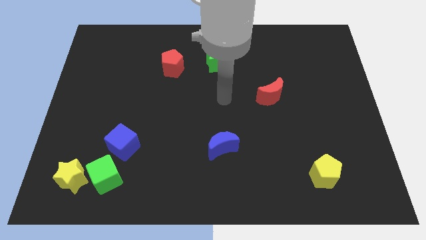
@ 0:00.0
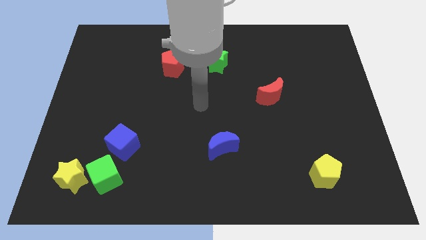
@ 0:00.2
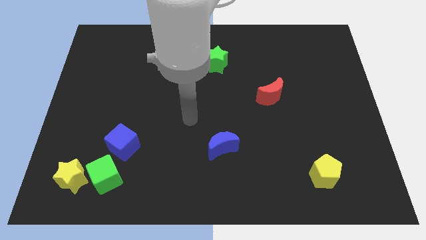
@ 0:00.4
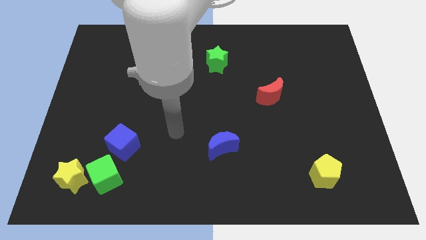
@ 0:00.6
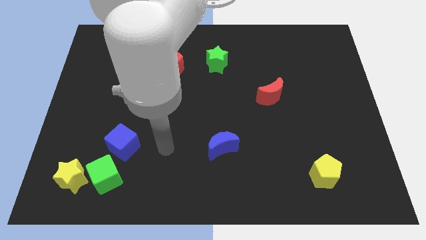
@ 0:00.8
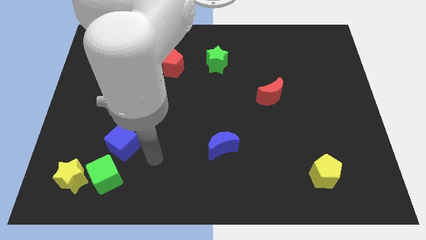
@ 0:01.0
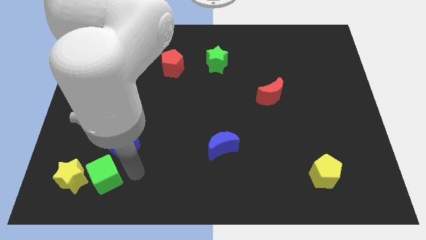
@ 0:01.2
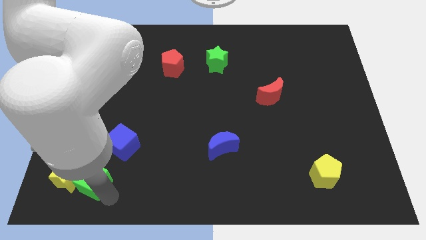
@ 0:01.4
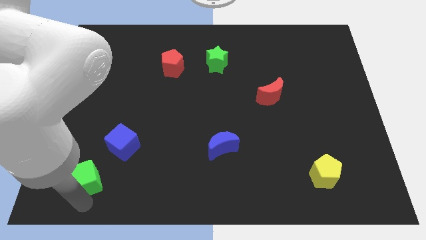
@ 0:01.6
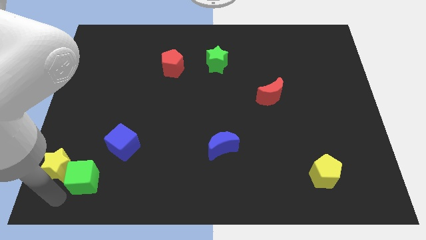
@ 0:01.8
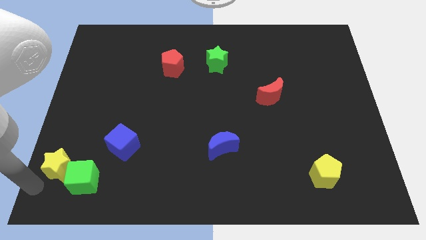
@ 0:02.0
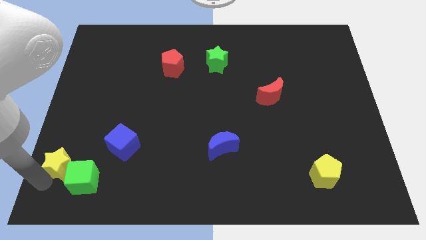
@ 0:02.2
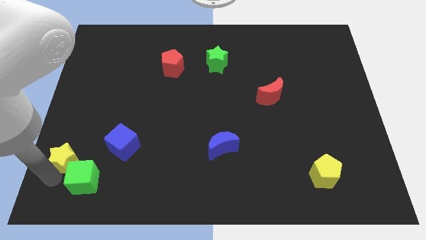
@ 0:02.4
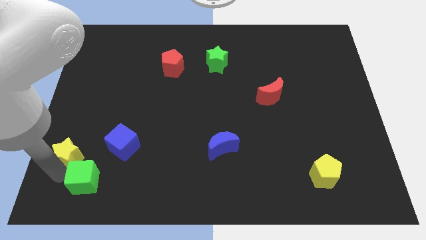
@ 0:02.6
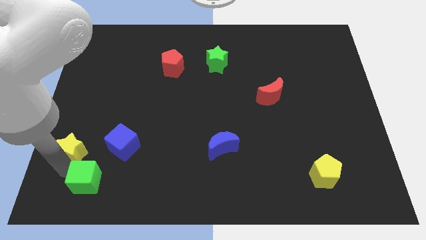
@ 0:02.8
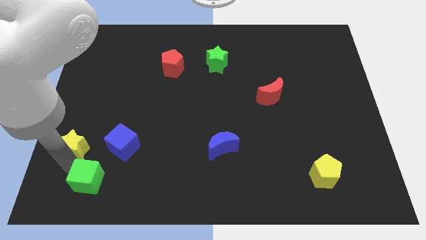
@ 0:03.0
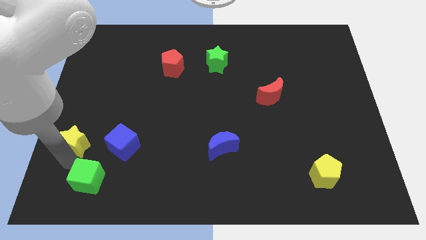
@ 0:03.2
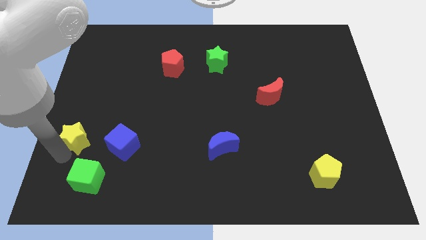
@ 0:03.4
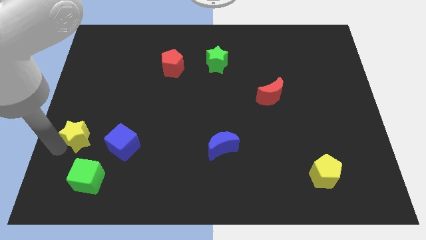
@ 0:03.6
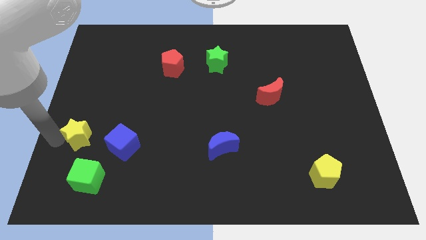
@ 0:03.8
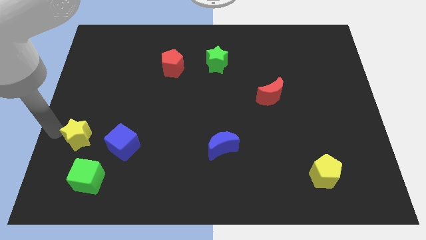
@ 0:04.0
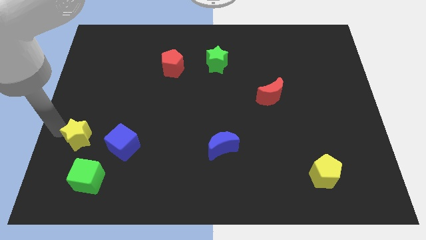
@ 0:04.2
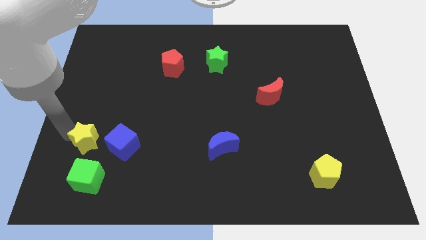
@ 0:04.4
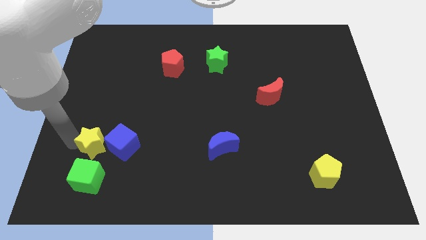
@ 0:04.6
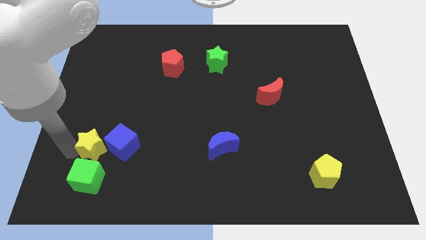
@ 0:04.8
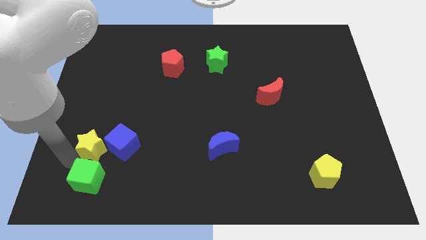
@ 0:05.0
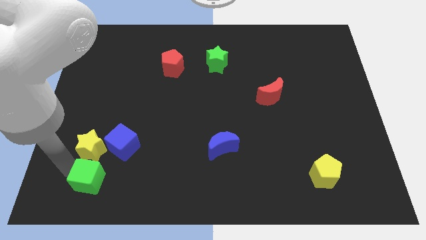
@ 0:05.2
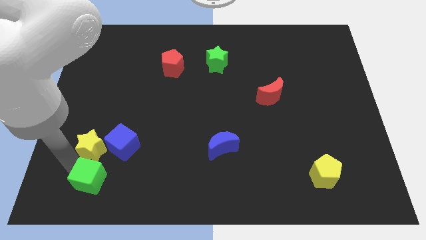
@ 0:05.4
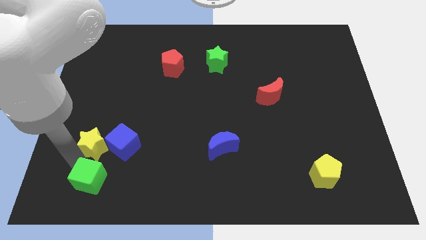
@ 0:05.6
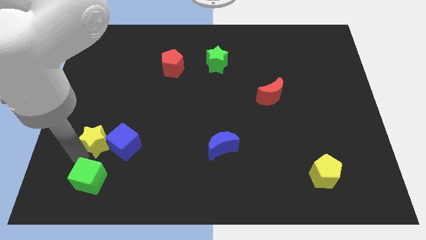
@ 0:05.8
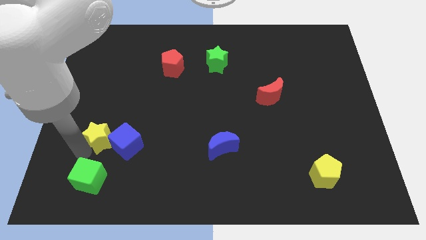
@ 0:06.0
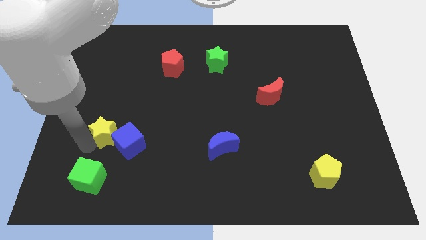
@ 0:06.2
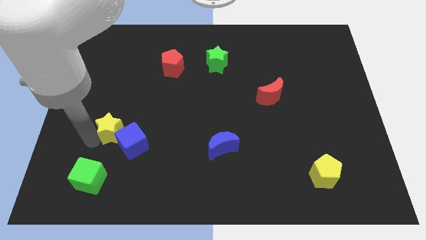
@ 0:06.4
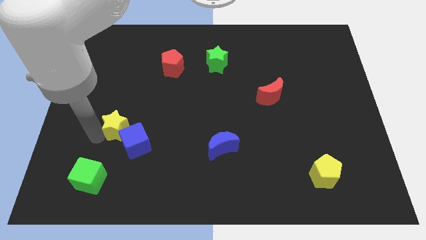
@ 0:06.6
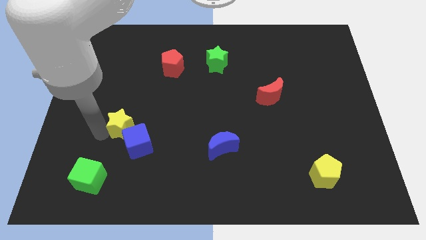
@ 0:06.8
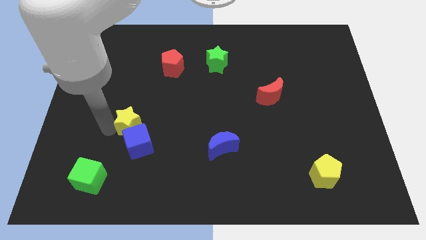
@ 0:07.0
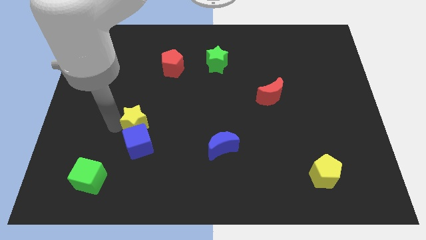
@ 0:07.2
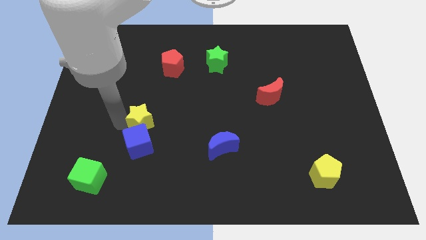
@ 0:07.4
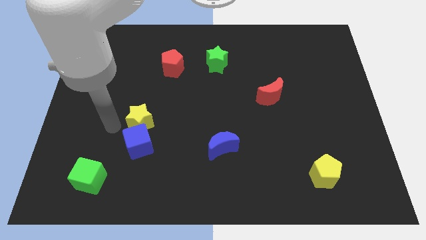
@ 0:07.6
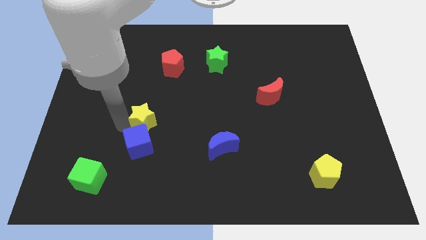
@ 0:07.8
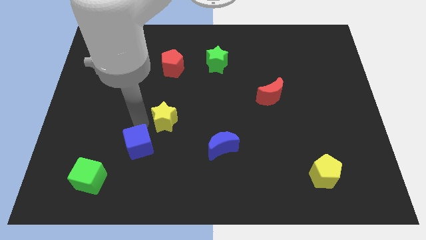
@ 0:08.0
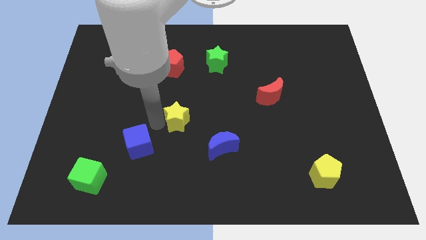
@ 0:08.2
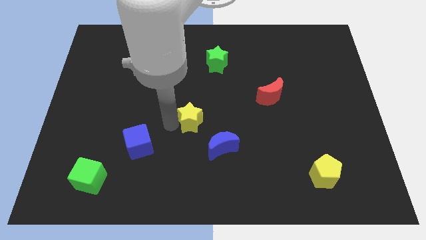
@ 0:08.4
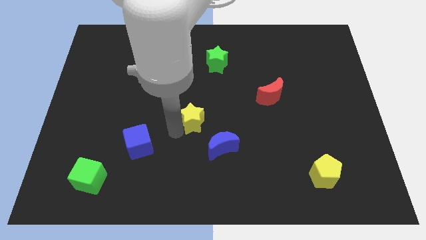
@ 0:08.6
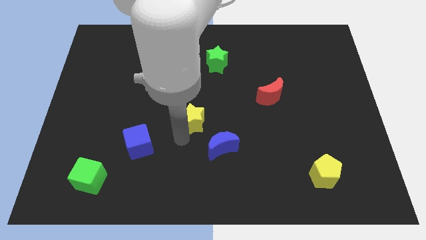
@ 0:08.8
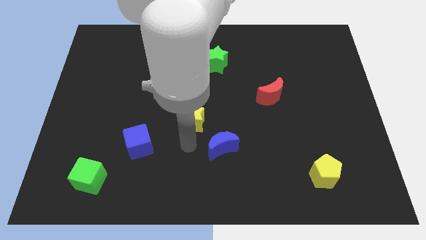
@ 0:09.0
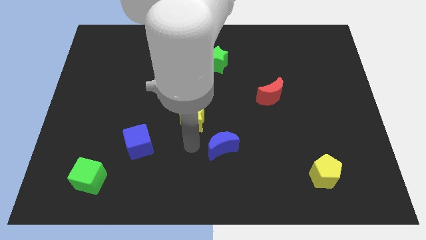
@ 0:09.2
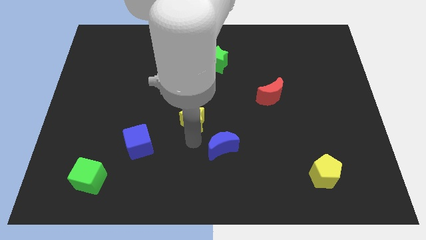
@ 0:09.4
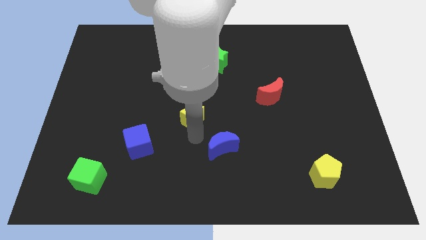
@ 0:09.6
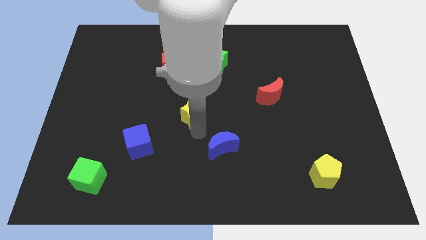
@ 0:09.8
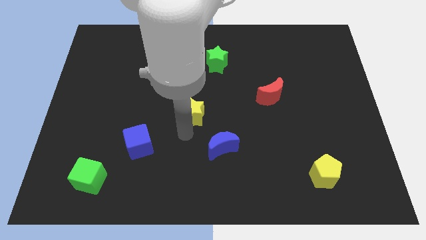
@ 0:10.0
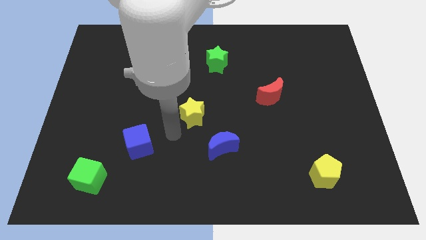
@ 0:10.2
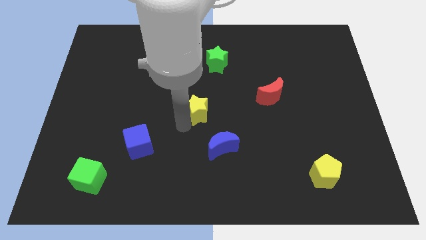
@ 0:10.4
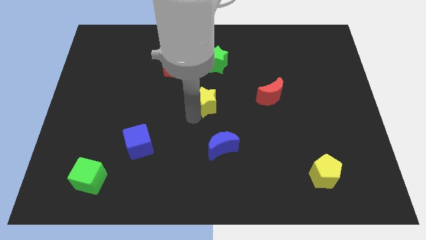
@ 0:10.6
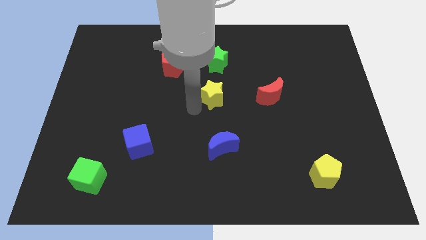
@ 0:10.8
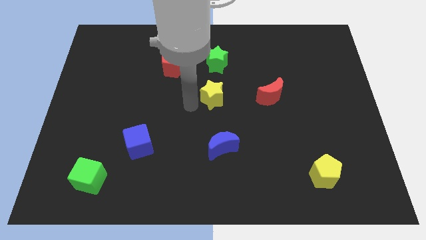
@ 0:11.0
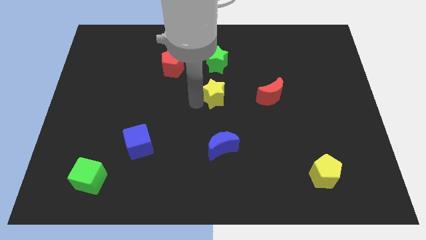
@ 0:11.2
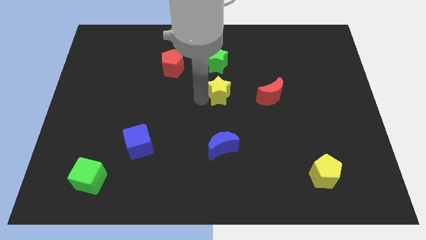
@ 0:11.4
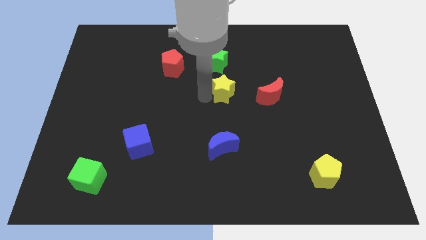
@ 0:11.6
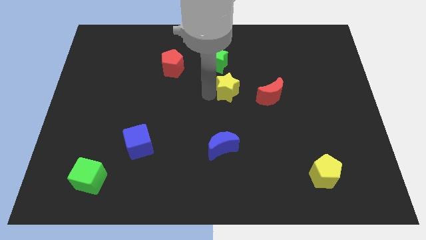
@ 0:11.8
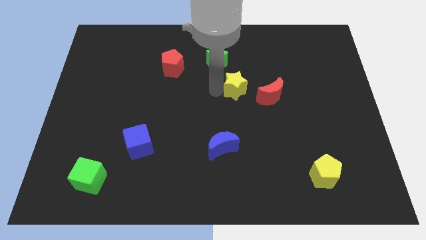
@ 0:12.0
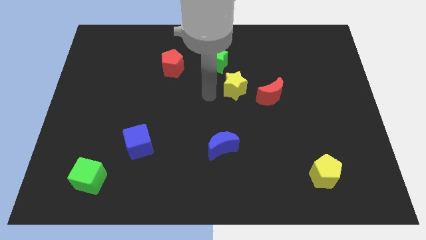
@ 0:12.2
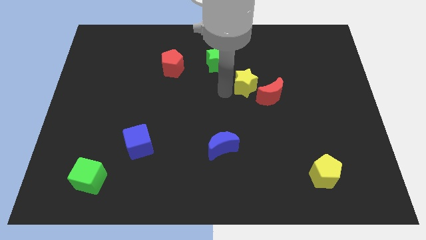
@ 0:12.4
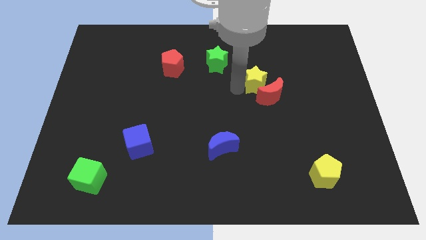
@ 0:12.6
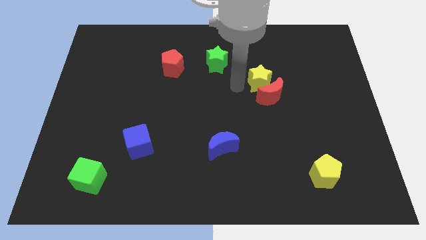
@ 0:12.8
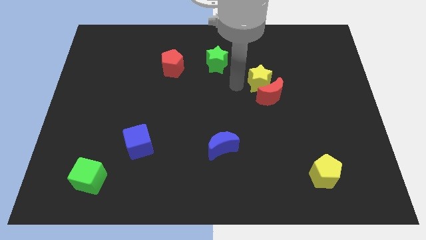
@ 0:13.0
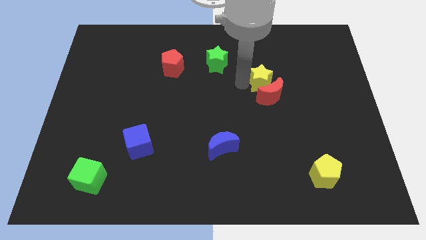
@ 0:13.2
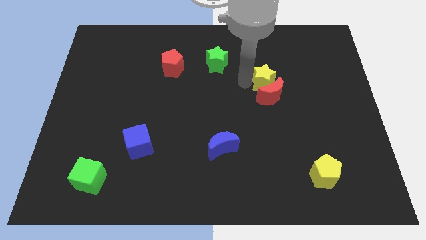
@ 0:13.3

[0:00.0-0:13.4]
move the yellow star to the top right of the red moon
